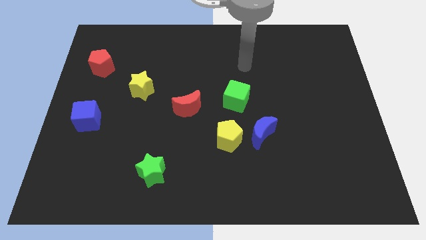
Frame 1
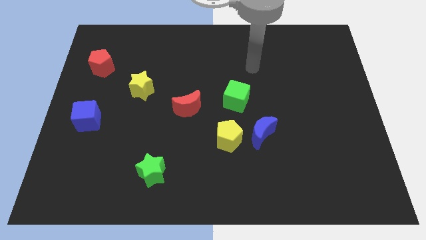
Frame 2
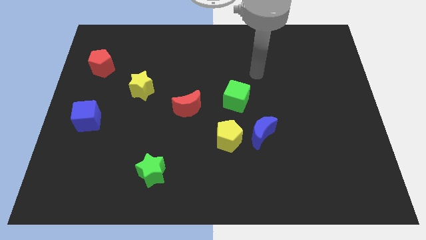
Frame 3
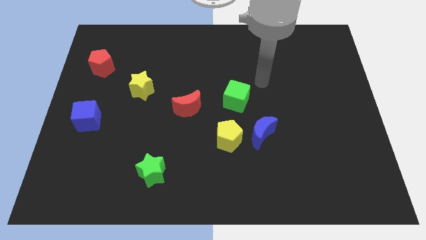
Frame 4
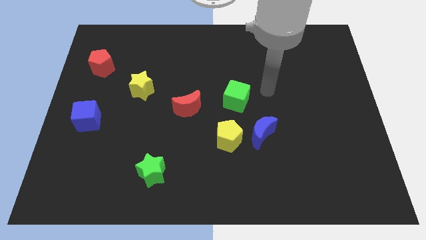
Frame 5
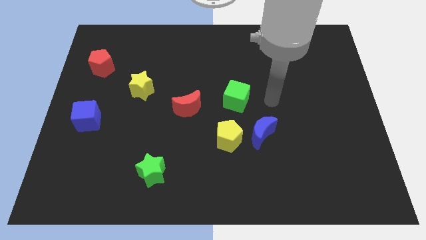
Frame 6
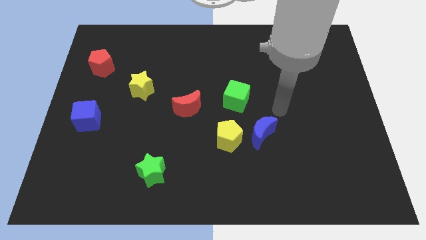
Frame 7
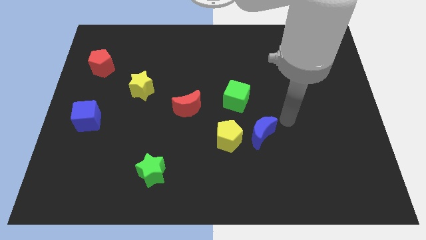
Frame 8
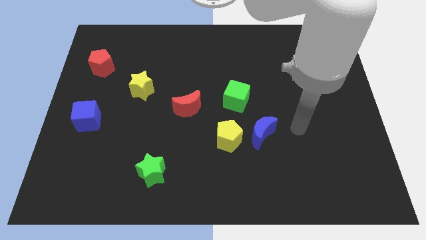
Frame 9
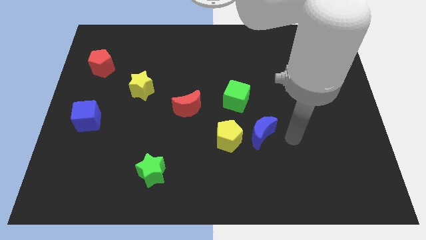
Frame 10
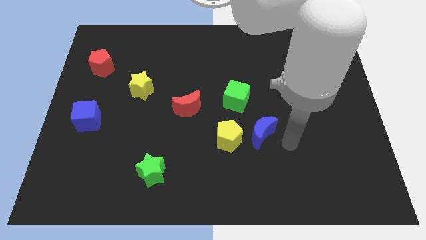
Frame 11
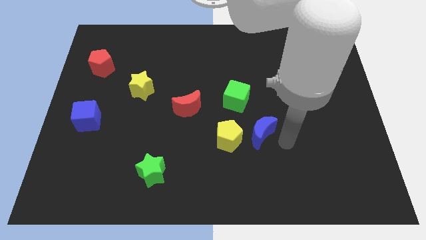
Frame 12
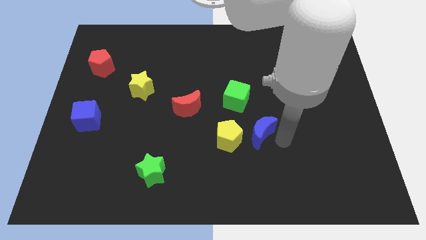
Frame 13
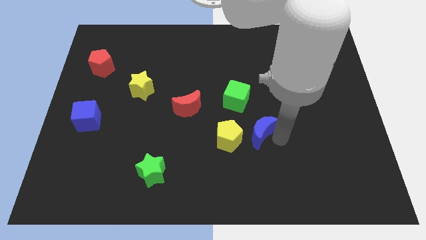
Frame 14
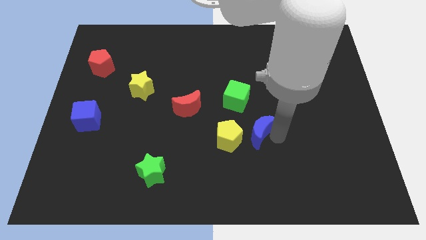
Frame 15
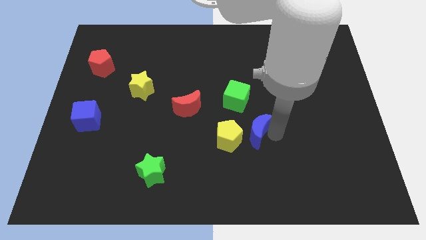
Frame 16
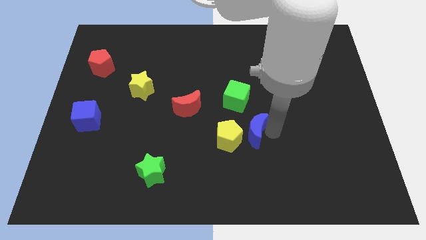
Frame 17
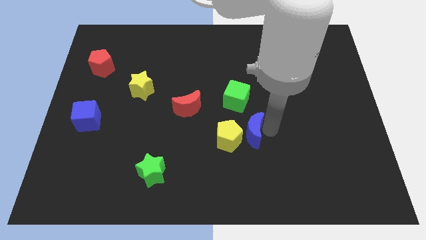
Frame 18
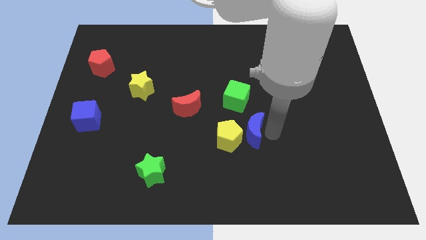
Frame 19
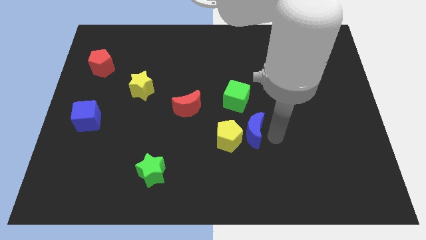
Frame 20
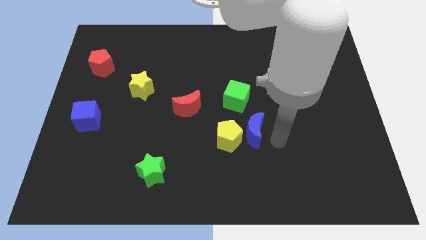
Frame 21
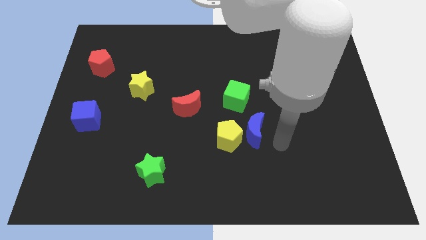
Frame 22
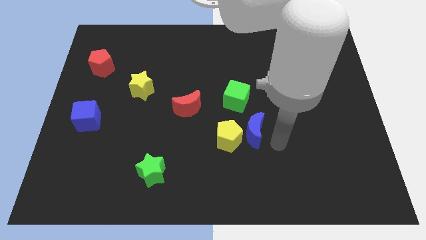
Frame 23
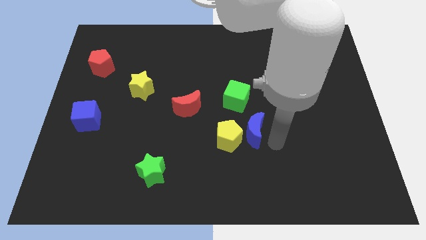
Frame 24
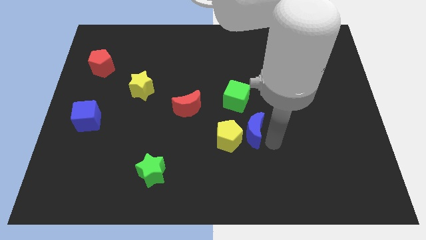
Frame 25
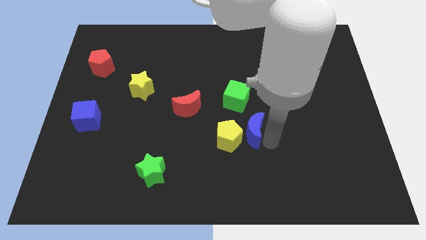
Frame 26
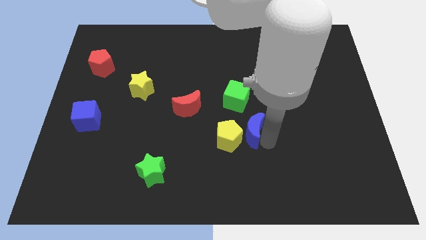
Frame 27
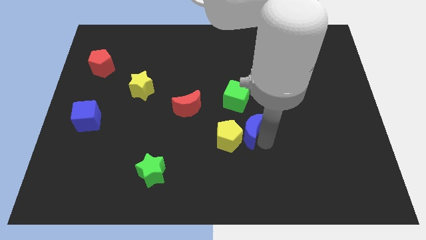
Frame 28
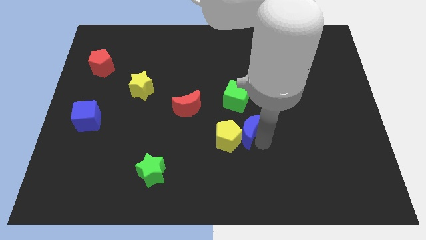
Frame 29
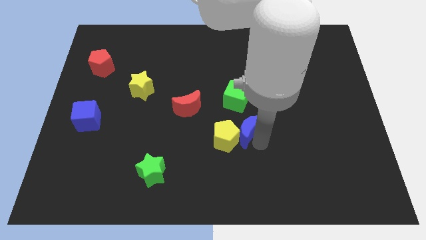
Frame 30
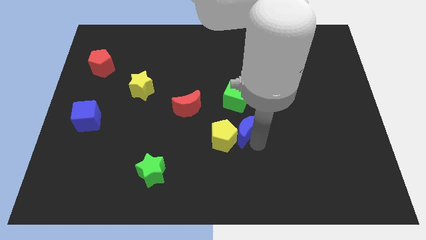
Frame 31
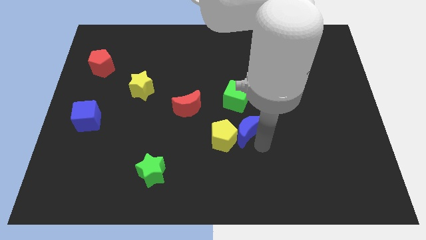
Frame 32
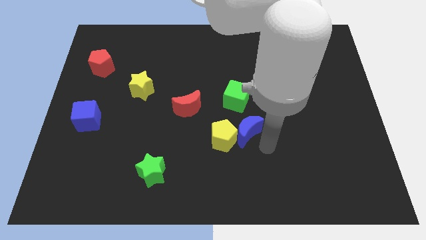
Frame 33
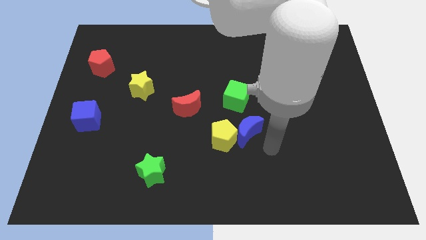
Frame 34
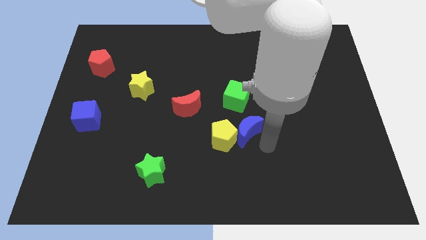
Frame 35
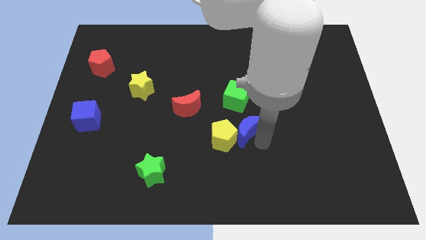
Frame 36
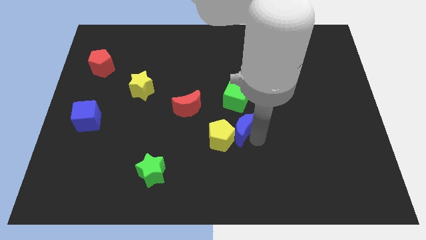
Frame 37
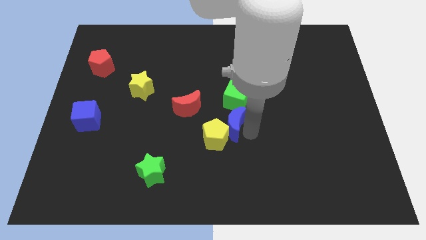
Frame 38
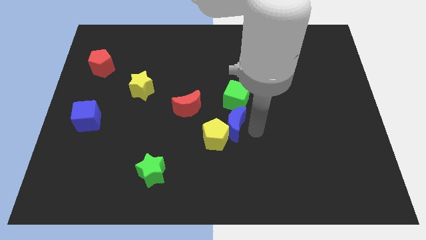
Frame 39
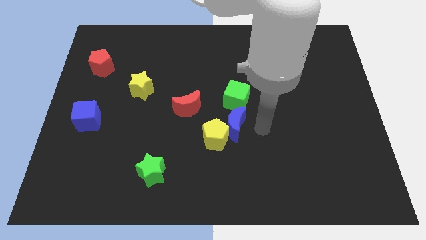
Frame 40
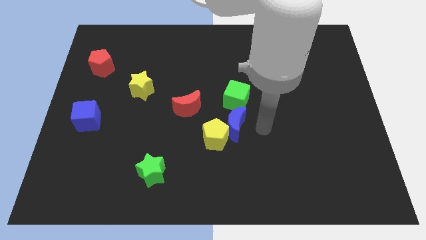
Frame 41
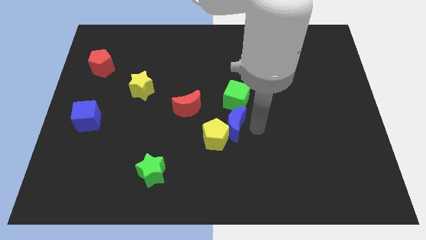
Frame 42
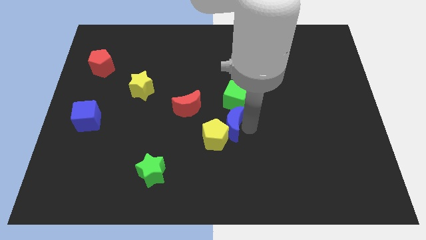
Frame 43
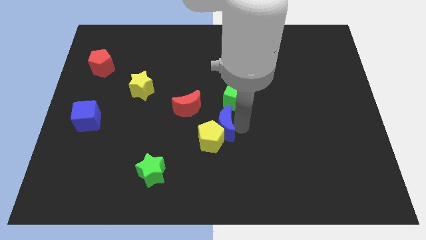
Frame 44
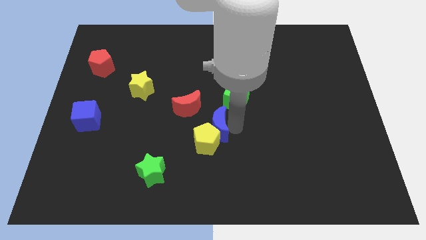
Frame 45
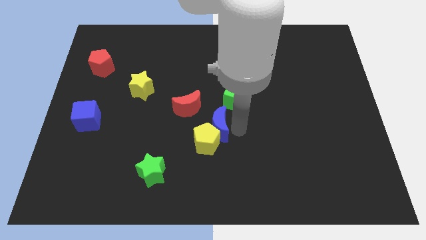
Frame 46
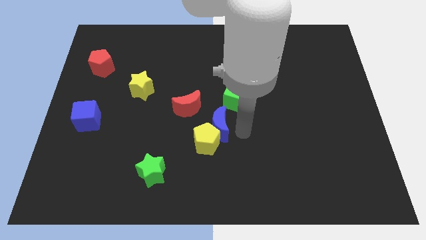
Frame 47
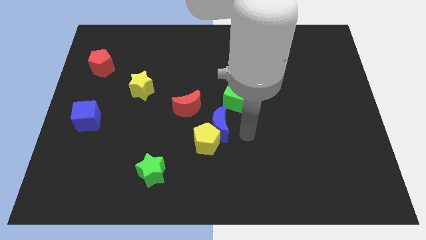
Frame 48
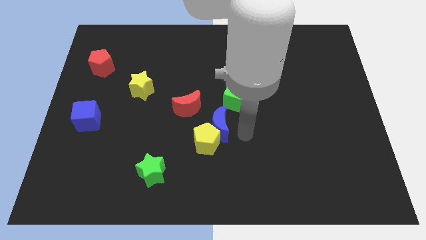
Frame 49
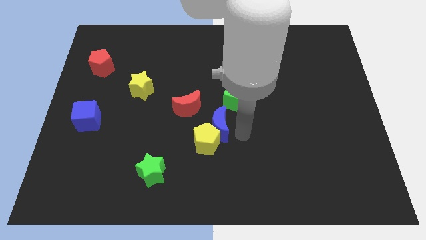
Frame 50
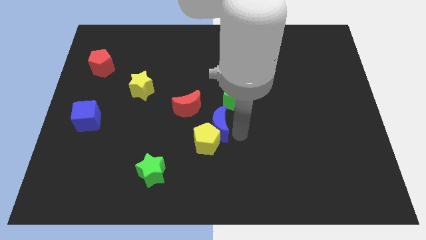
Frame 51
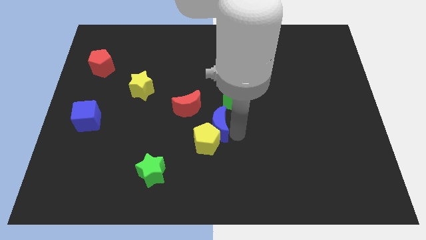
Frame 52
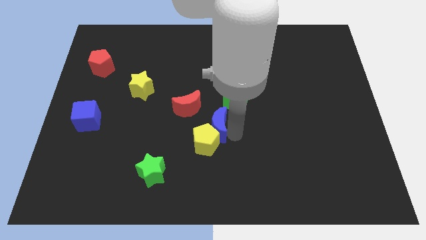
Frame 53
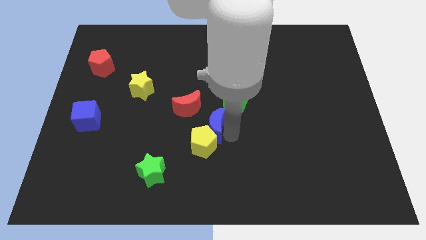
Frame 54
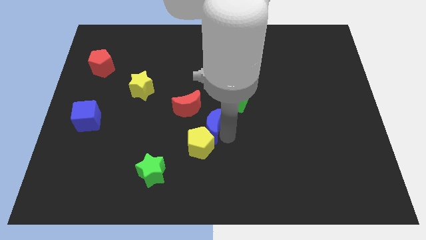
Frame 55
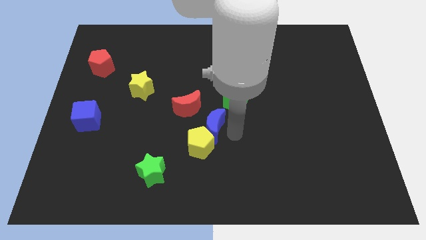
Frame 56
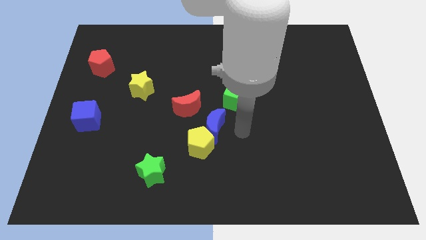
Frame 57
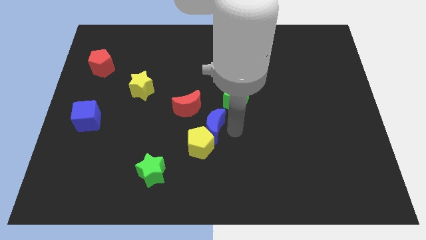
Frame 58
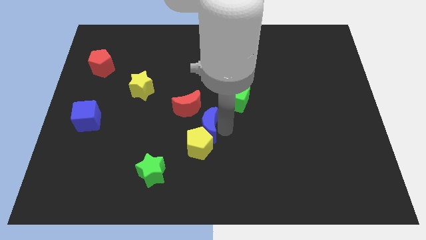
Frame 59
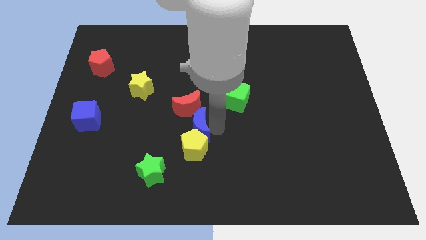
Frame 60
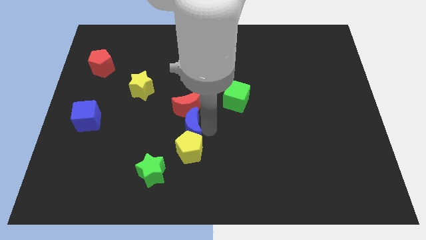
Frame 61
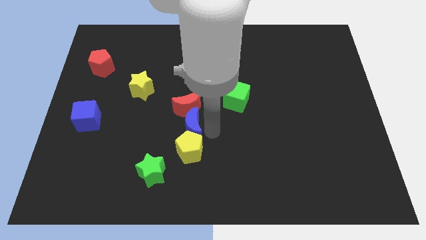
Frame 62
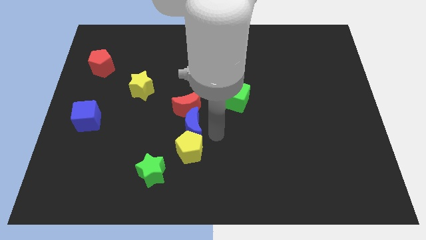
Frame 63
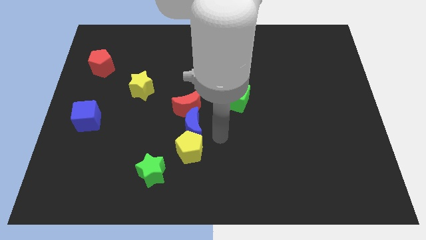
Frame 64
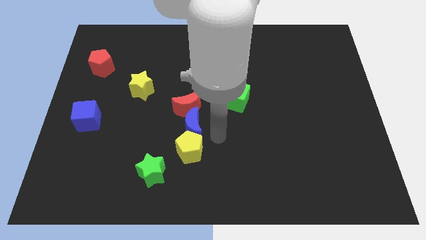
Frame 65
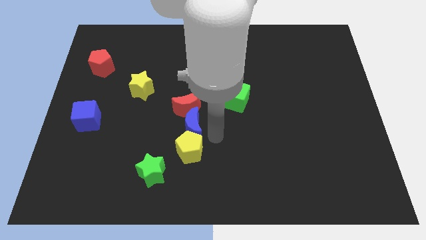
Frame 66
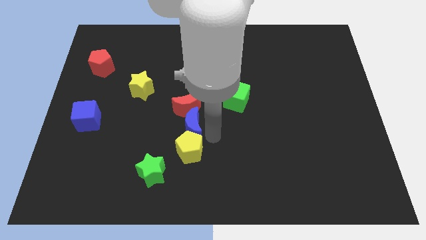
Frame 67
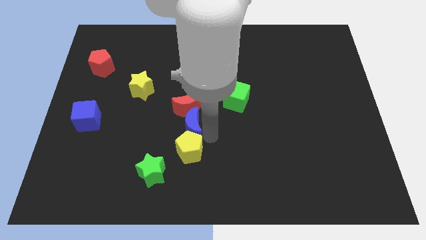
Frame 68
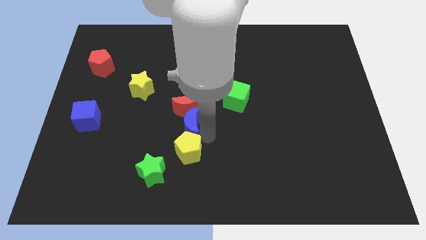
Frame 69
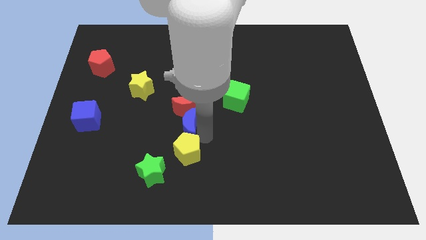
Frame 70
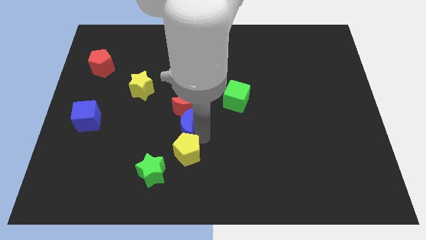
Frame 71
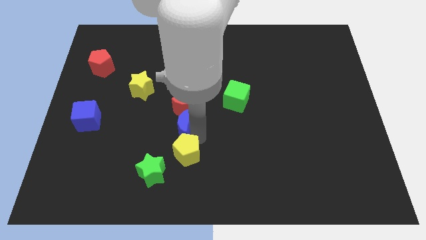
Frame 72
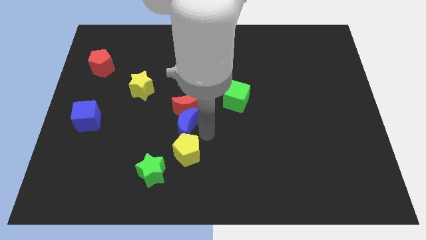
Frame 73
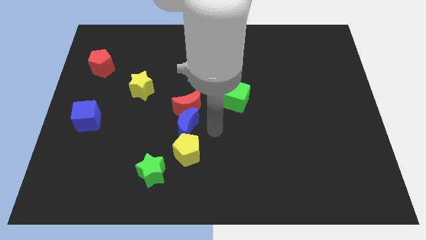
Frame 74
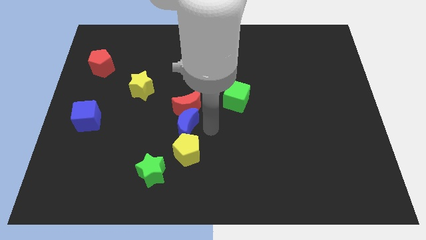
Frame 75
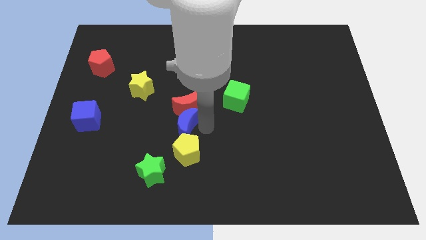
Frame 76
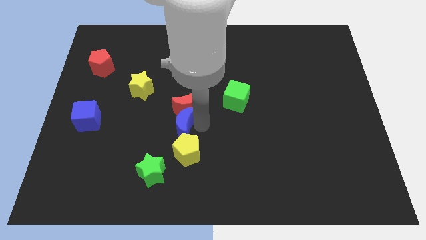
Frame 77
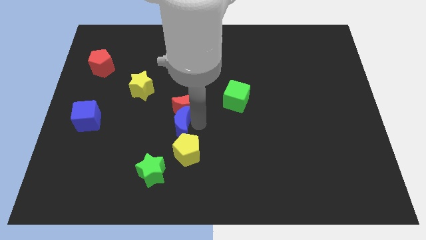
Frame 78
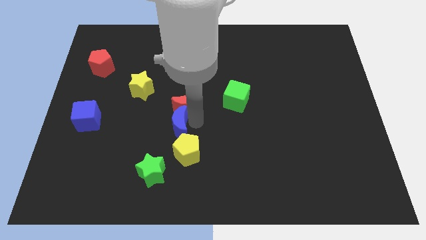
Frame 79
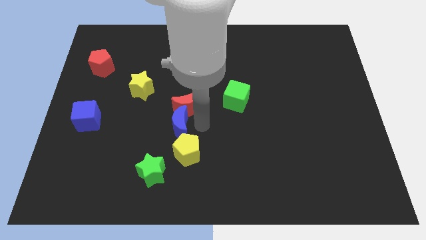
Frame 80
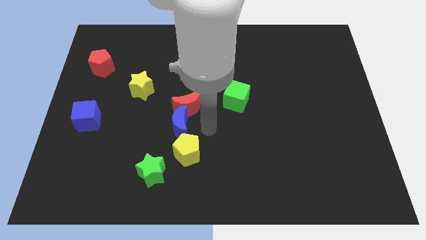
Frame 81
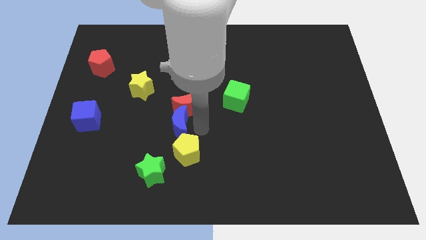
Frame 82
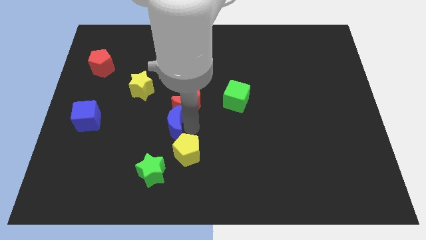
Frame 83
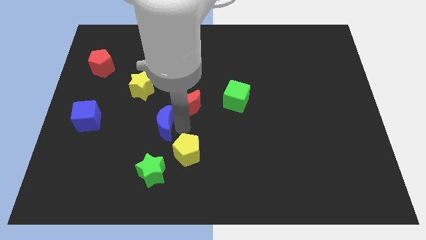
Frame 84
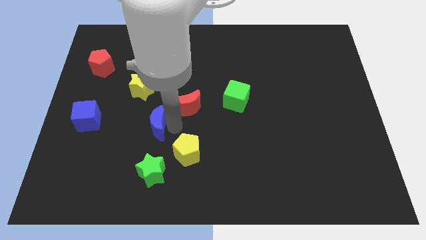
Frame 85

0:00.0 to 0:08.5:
slide the blue moon below the yellow star
